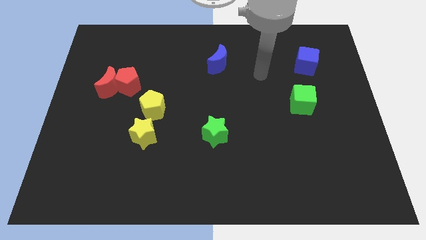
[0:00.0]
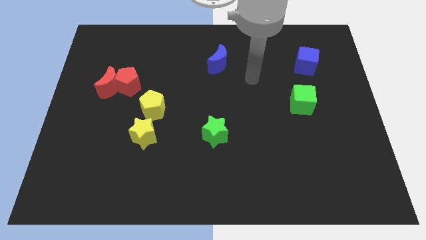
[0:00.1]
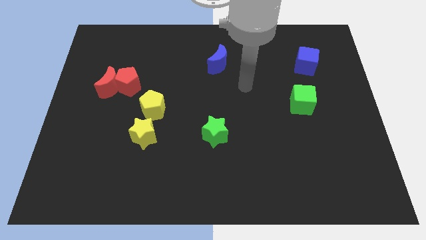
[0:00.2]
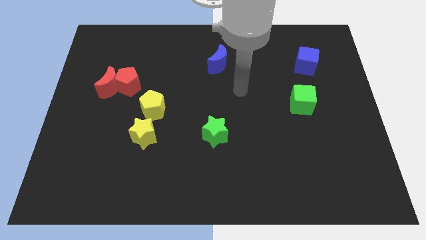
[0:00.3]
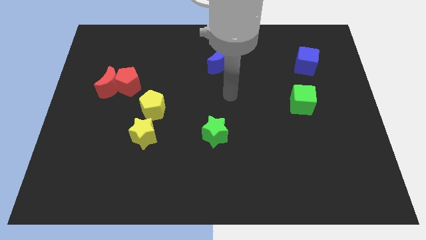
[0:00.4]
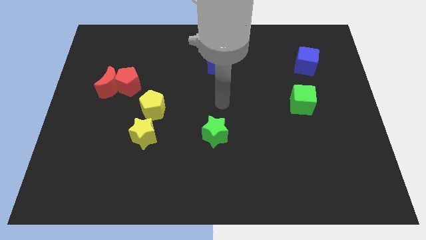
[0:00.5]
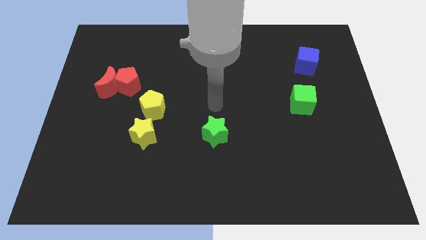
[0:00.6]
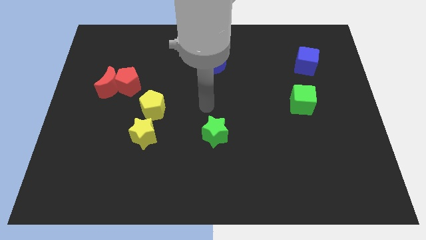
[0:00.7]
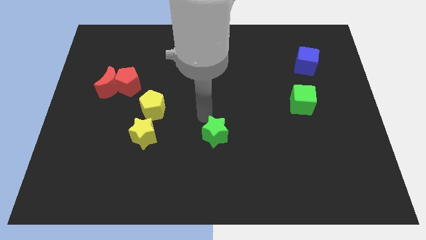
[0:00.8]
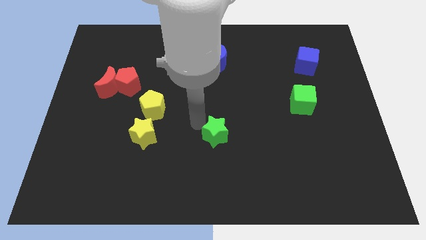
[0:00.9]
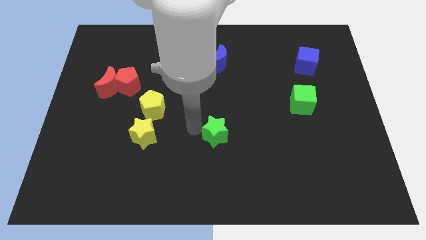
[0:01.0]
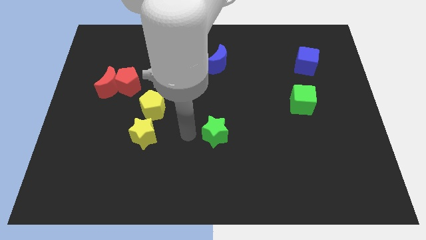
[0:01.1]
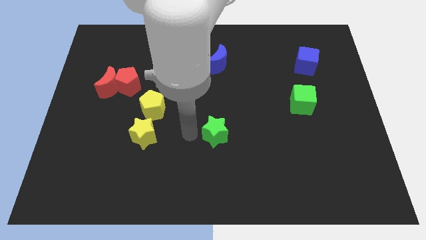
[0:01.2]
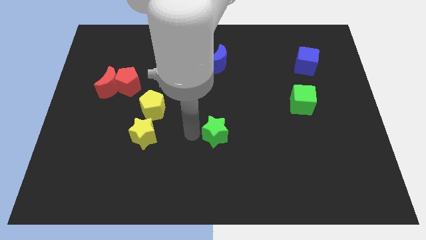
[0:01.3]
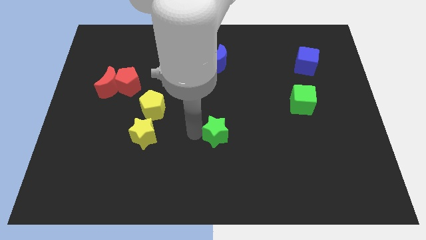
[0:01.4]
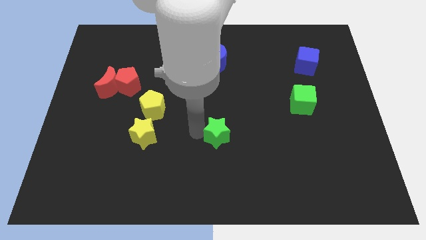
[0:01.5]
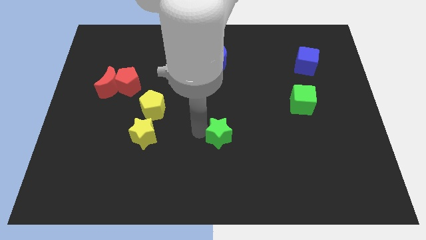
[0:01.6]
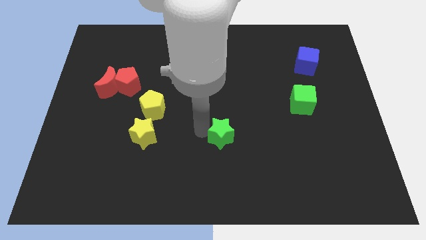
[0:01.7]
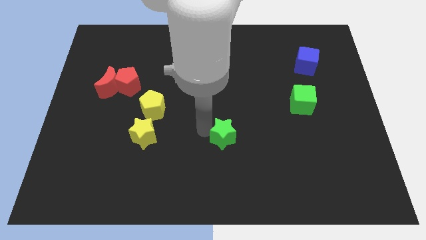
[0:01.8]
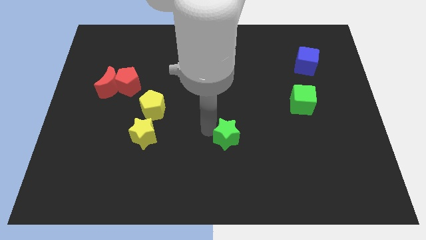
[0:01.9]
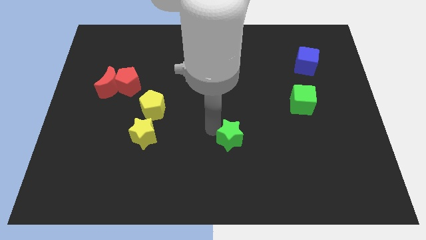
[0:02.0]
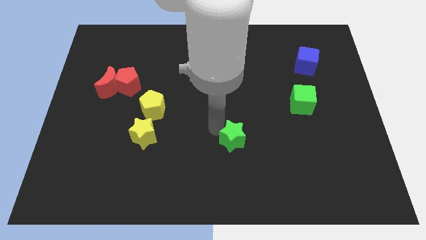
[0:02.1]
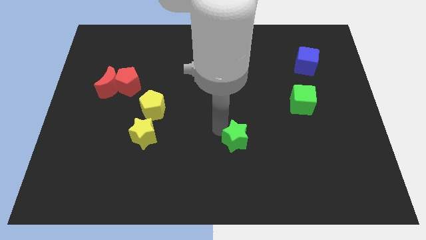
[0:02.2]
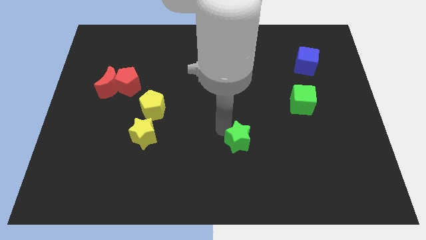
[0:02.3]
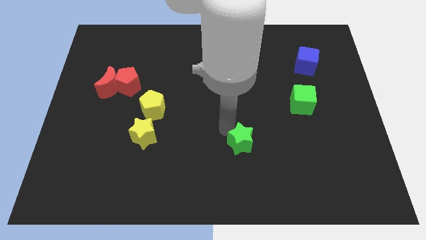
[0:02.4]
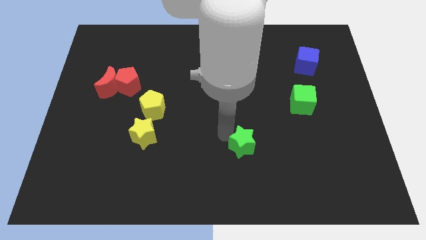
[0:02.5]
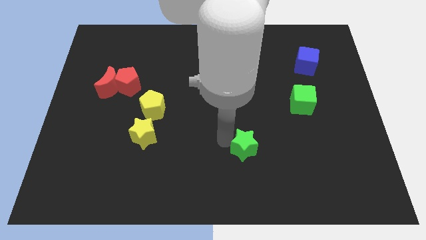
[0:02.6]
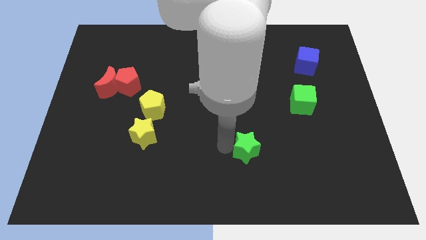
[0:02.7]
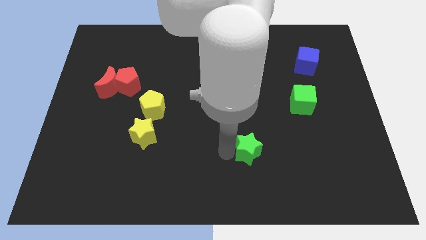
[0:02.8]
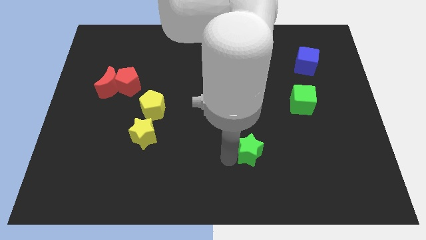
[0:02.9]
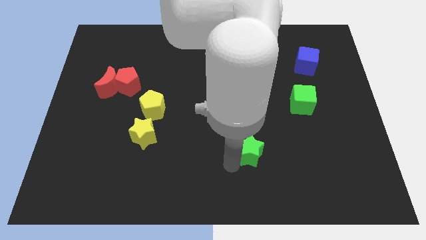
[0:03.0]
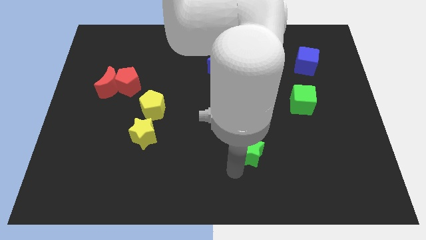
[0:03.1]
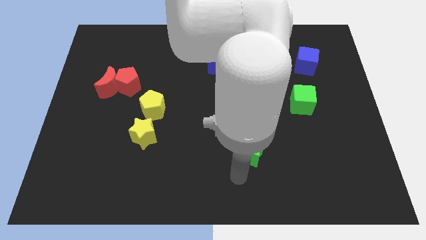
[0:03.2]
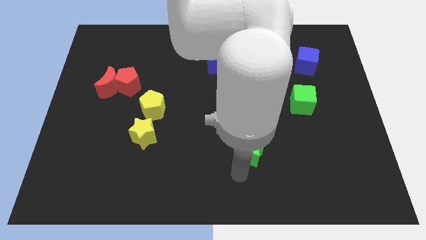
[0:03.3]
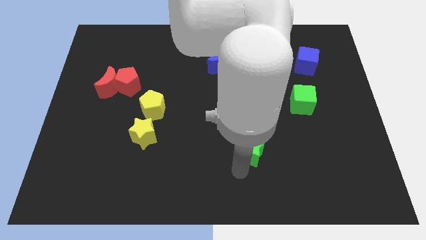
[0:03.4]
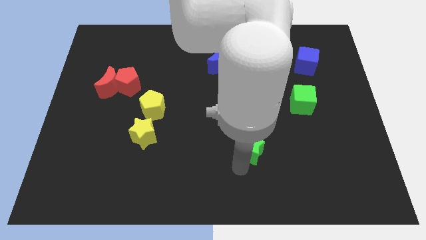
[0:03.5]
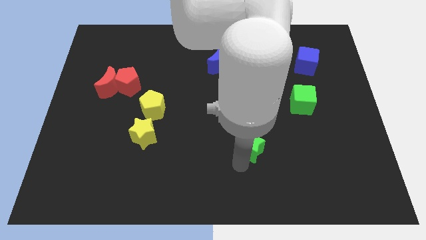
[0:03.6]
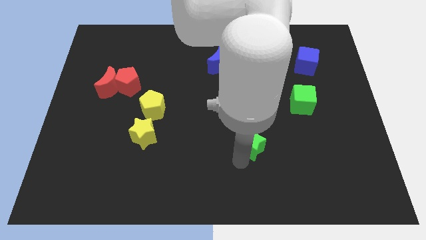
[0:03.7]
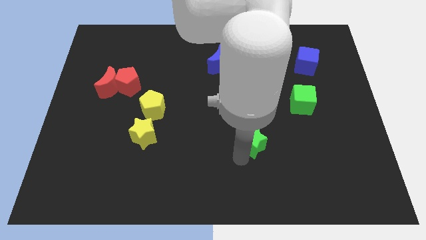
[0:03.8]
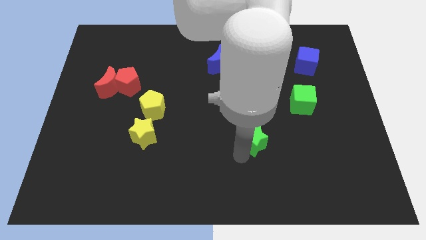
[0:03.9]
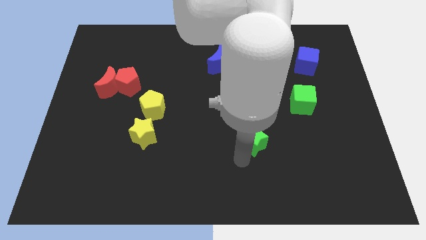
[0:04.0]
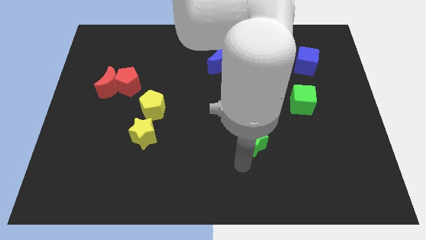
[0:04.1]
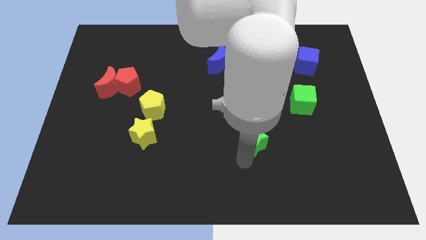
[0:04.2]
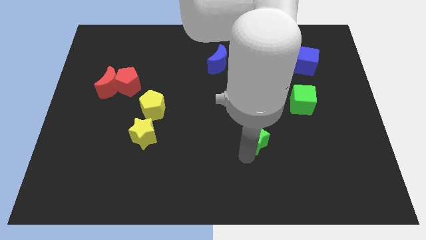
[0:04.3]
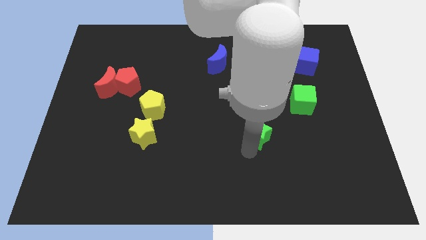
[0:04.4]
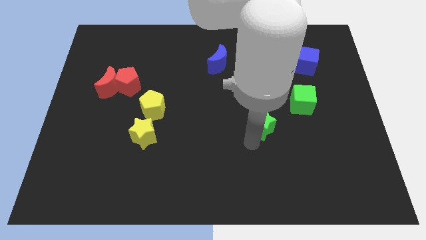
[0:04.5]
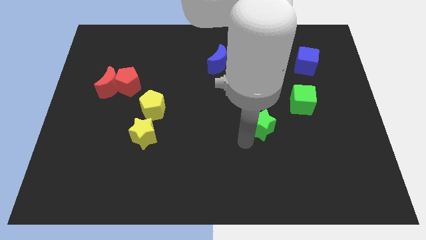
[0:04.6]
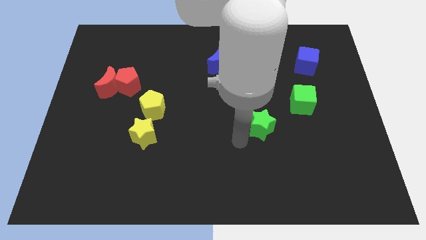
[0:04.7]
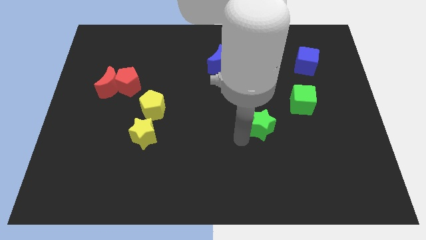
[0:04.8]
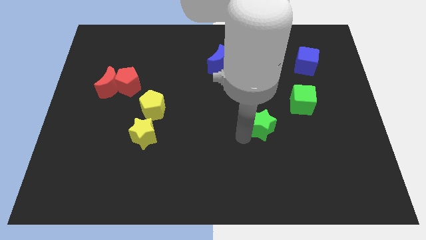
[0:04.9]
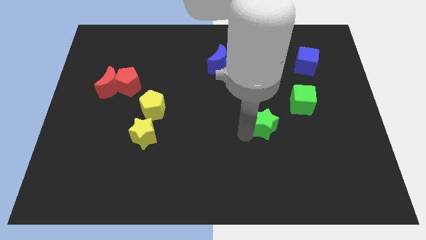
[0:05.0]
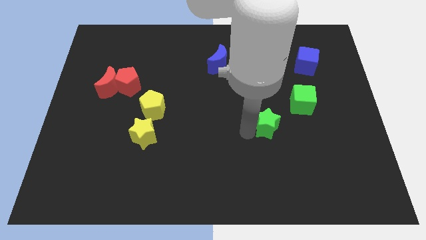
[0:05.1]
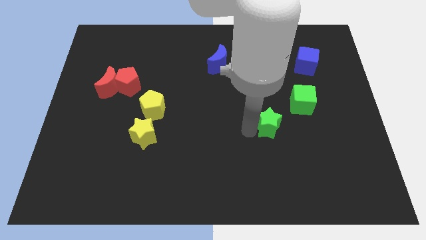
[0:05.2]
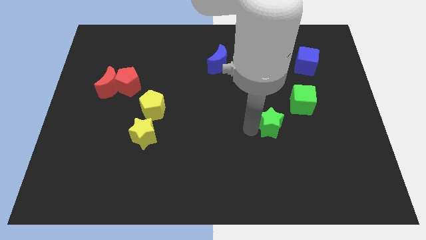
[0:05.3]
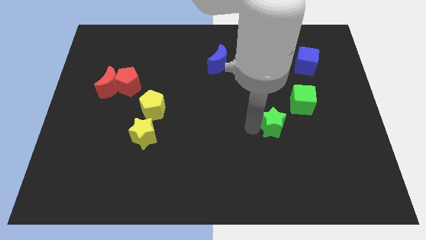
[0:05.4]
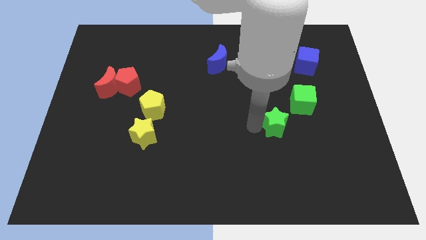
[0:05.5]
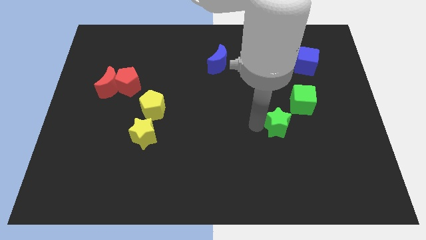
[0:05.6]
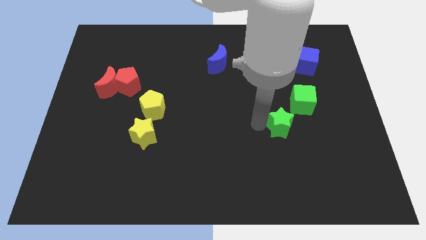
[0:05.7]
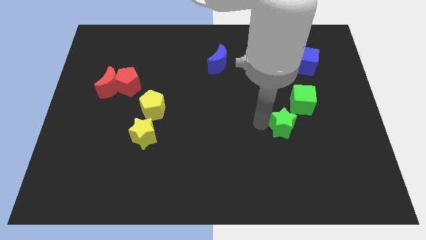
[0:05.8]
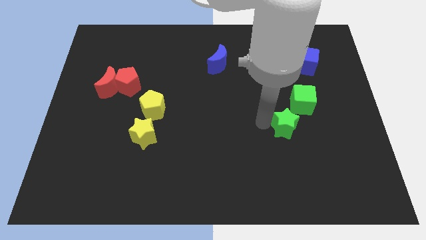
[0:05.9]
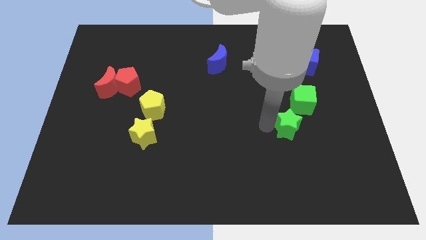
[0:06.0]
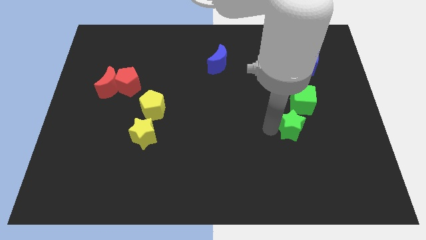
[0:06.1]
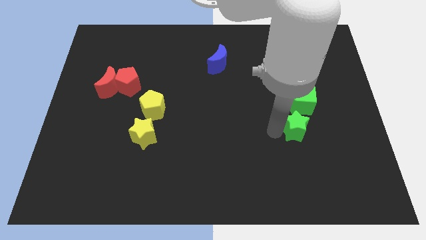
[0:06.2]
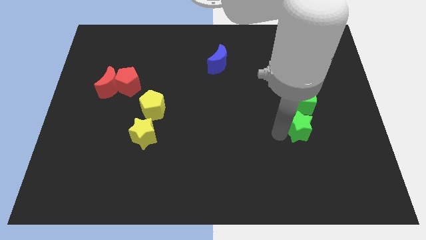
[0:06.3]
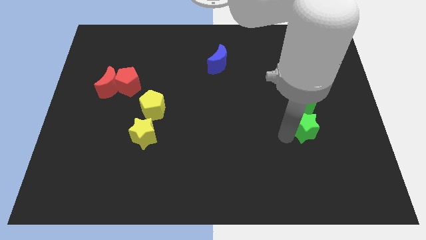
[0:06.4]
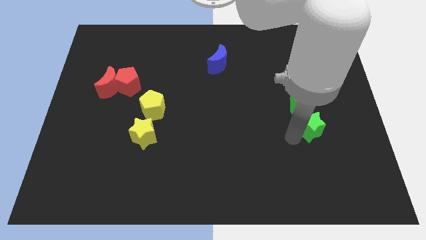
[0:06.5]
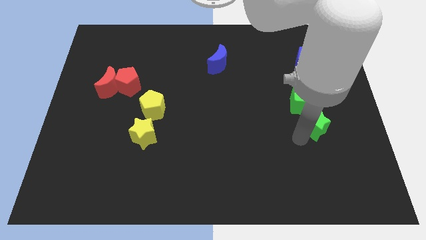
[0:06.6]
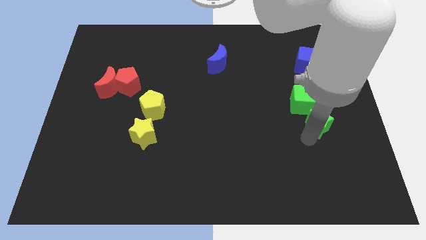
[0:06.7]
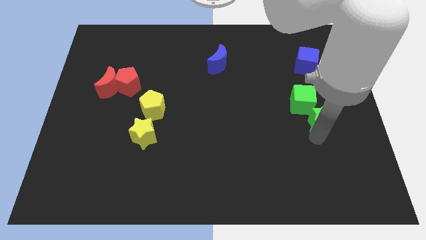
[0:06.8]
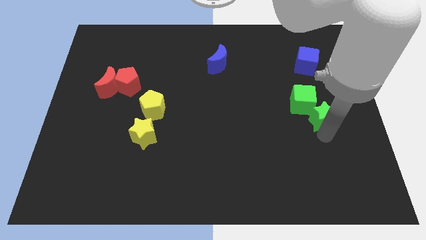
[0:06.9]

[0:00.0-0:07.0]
push the green star to the green cube
